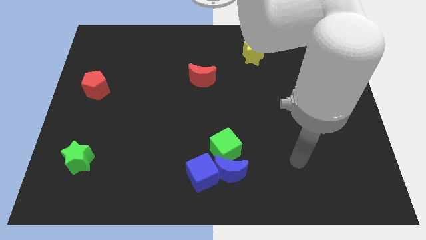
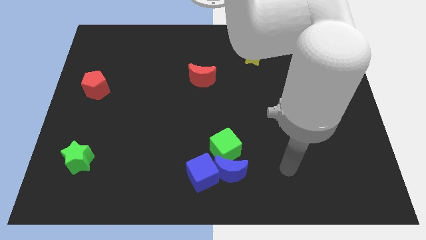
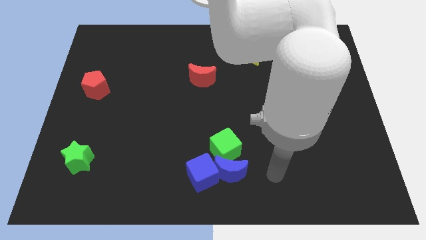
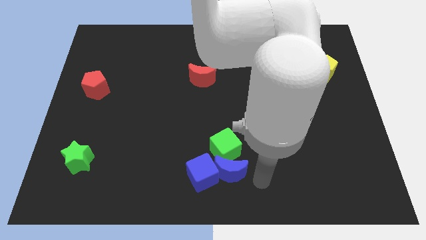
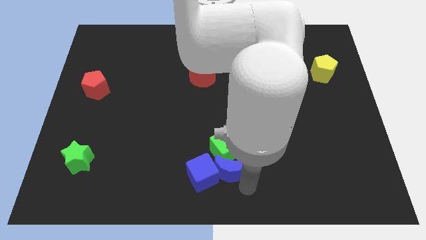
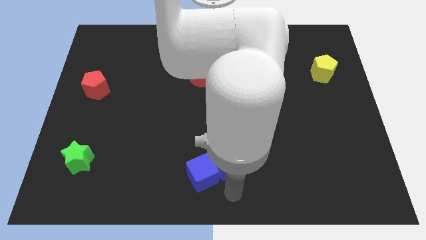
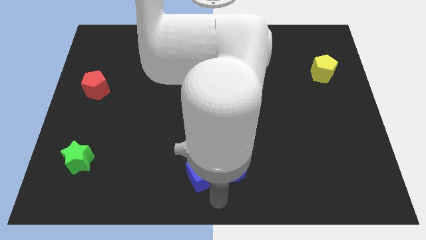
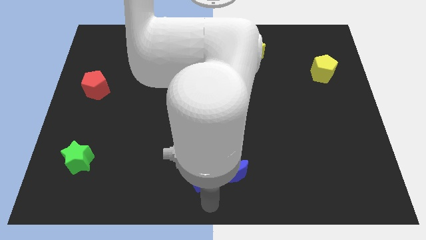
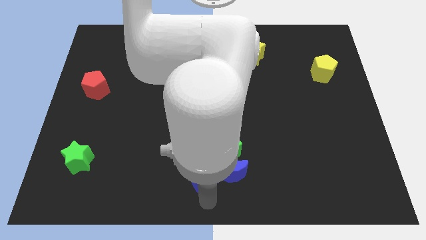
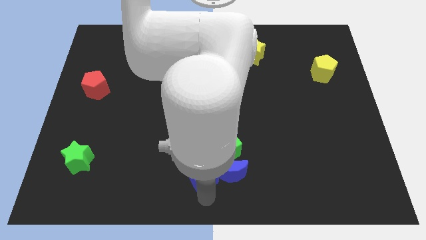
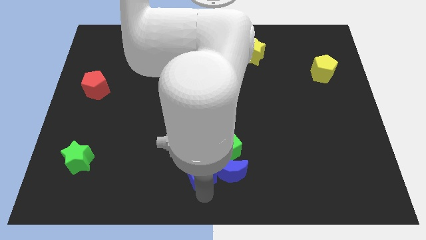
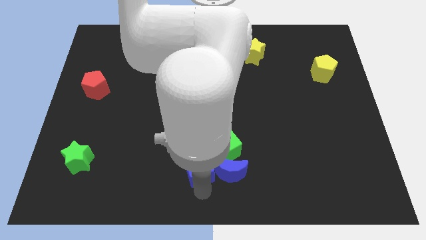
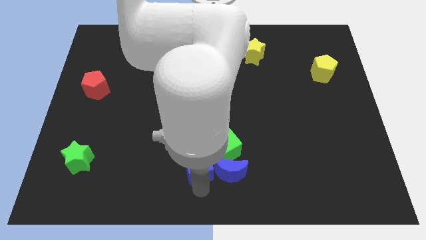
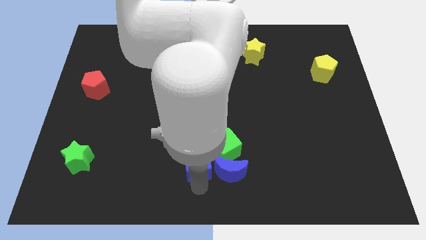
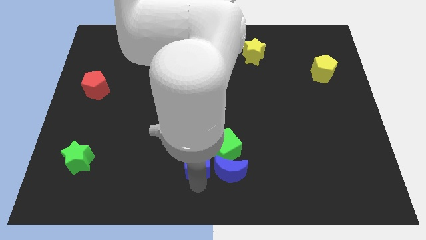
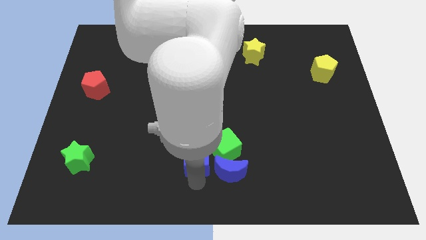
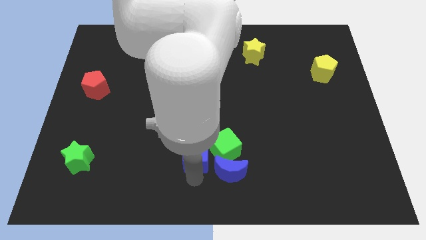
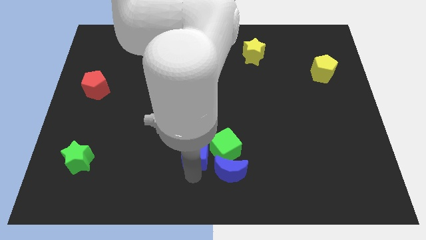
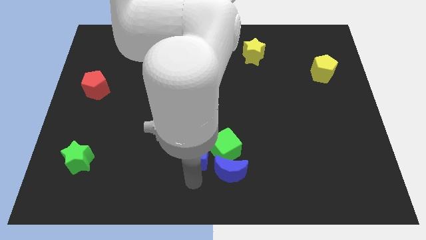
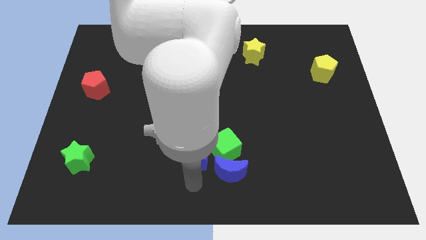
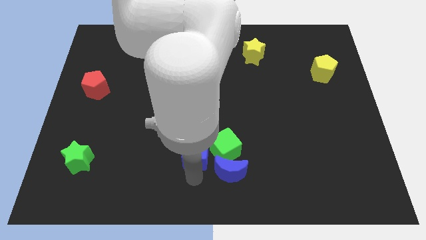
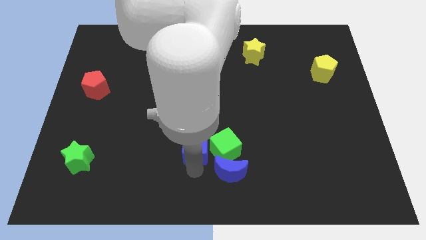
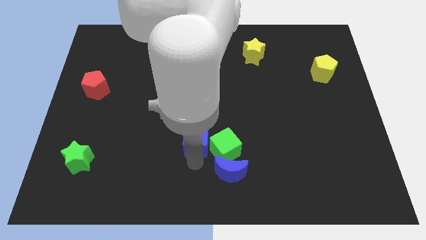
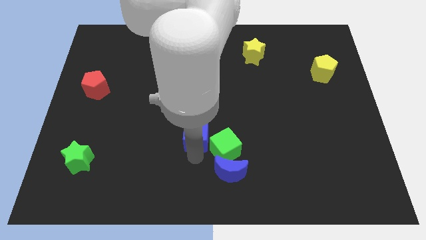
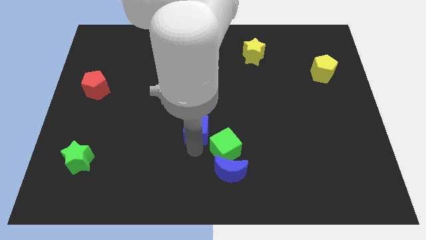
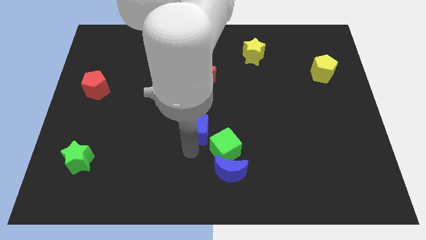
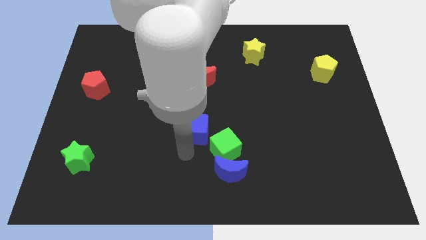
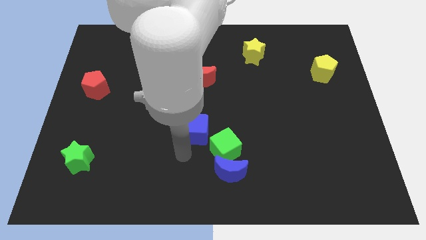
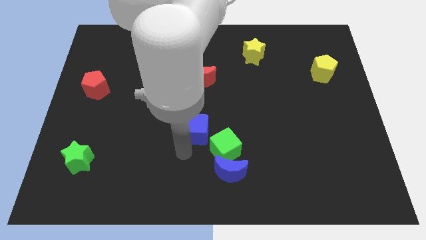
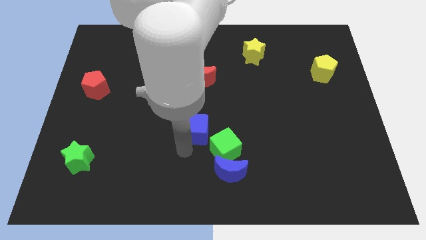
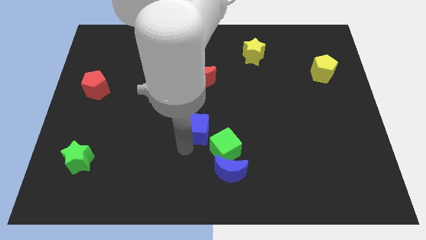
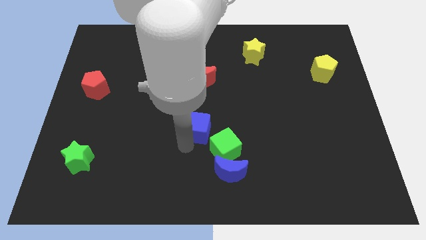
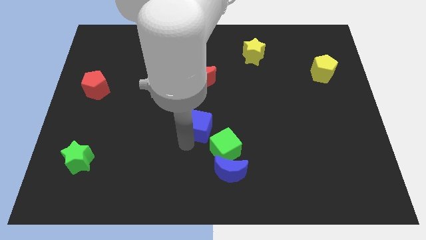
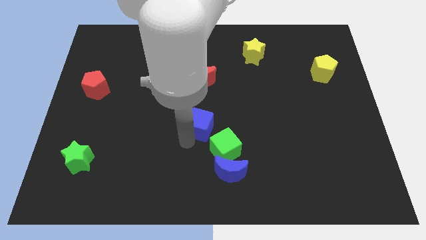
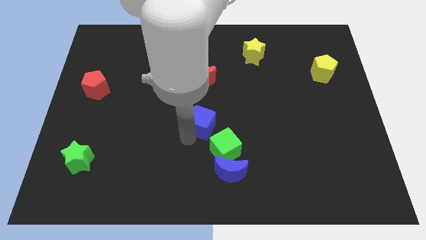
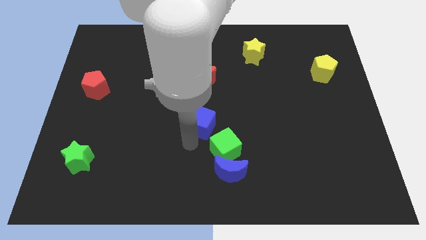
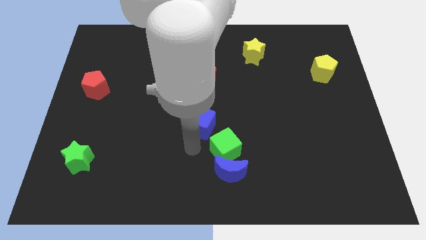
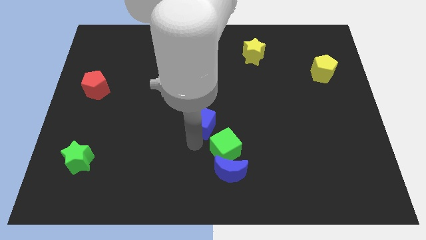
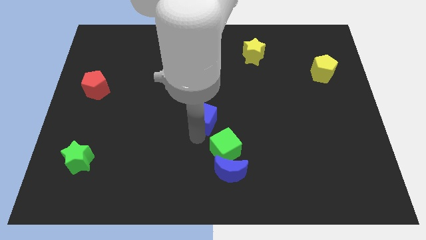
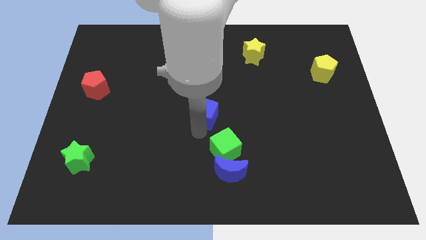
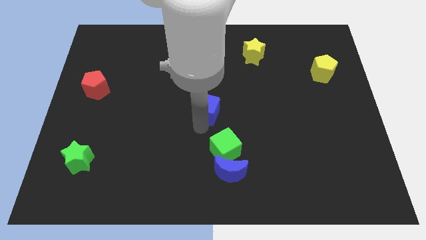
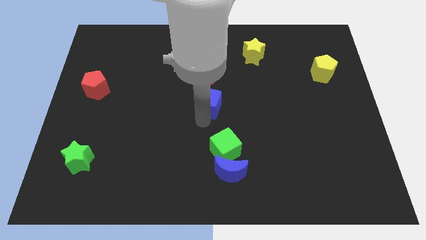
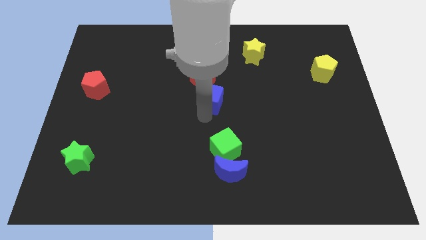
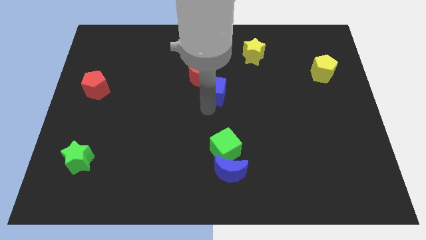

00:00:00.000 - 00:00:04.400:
slide the blue cube upwards

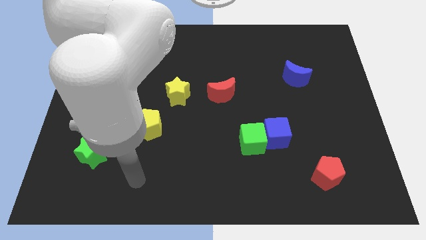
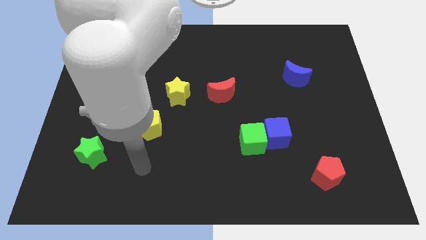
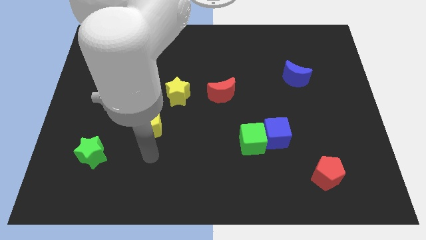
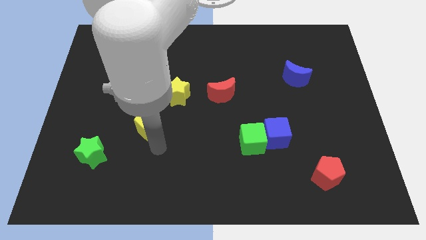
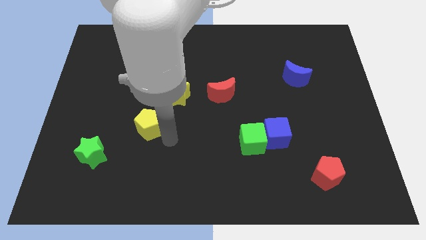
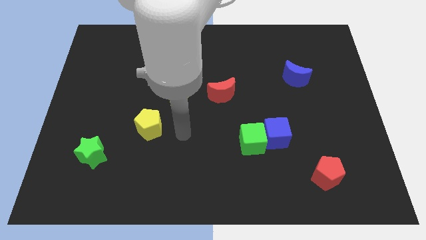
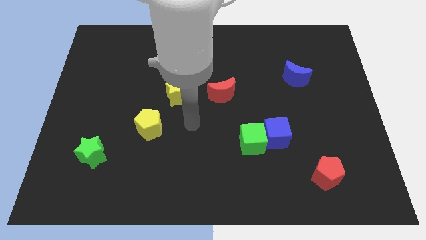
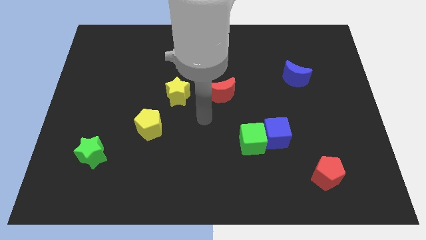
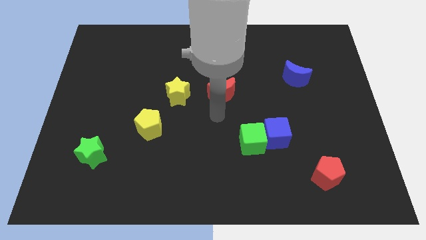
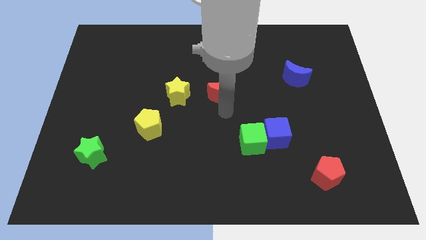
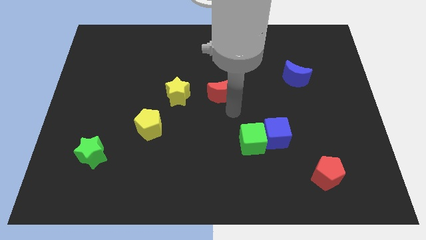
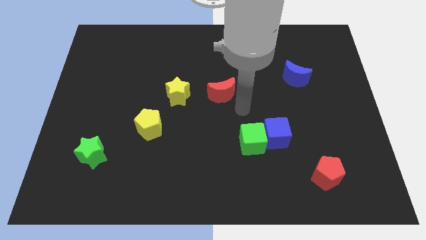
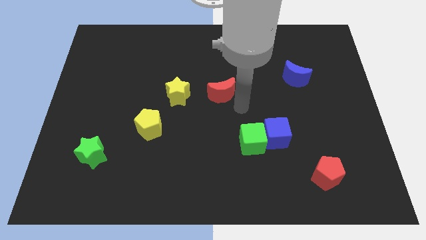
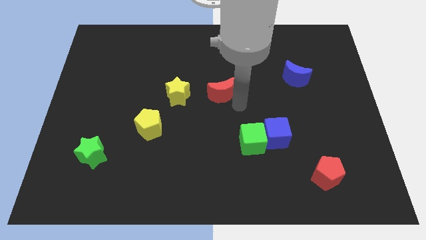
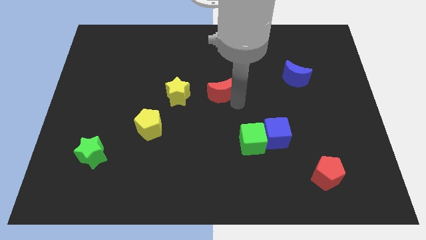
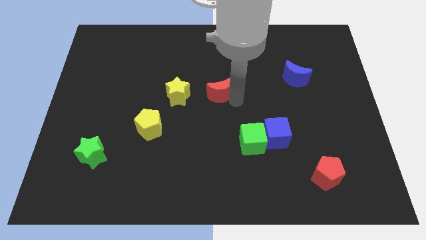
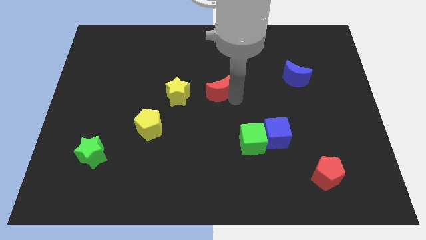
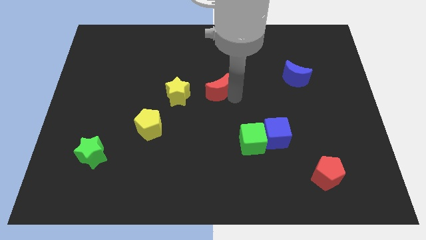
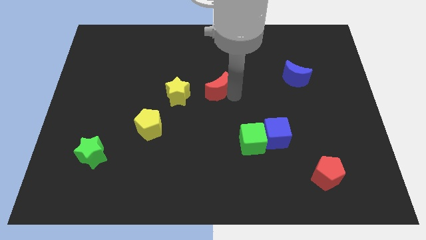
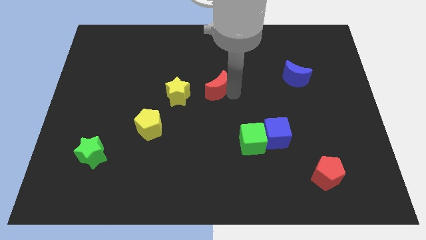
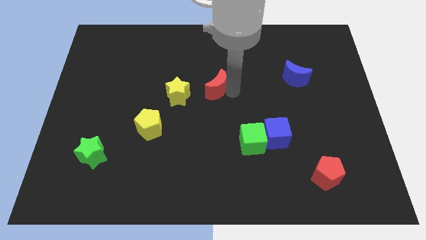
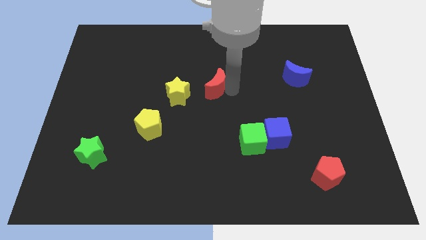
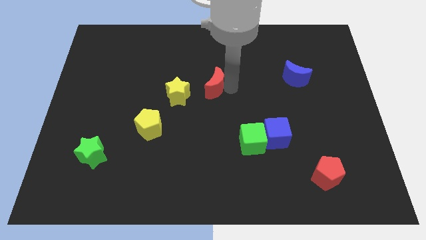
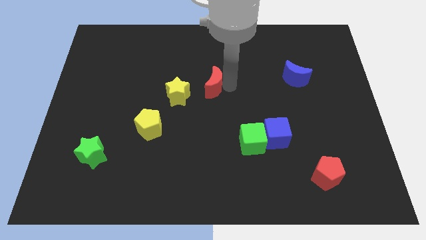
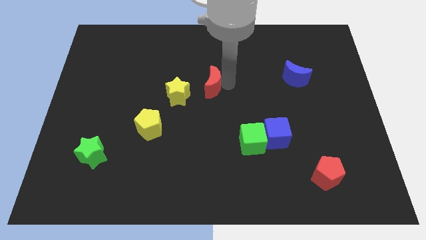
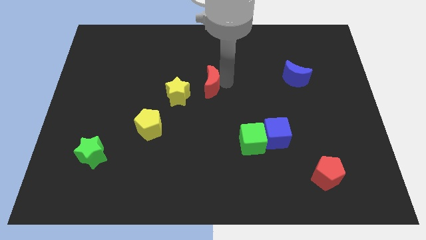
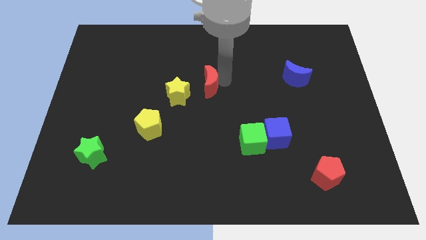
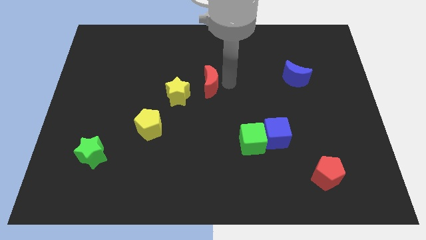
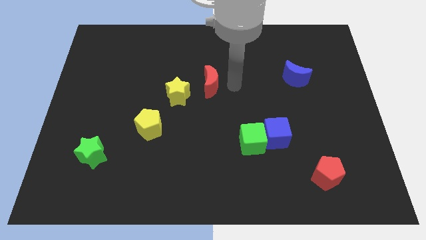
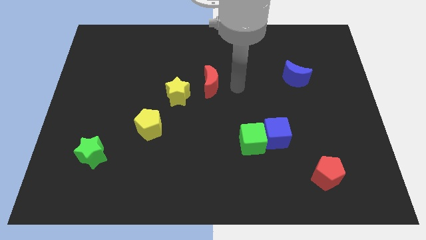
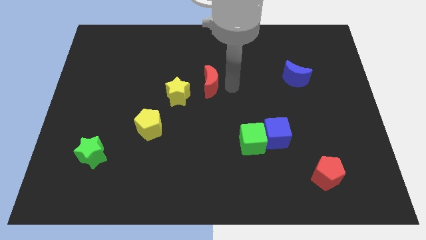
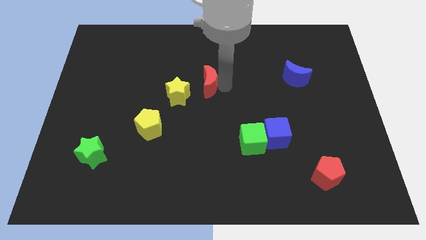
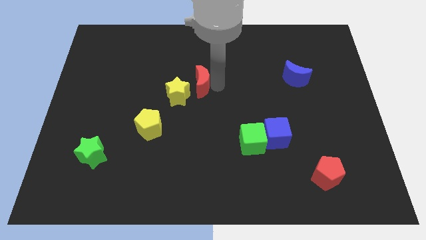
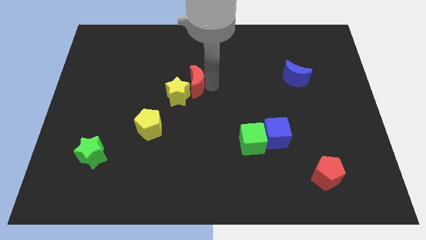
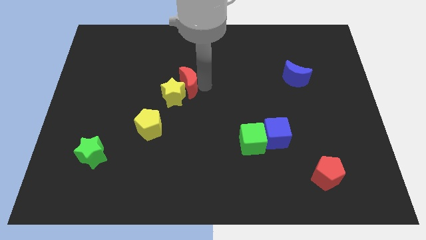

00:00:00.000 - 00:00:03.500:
slightly move the red moon left
